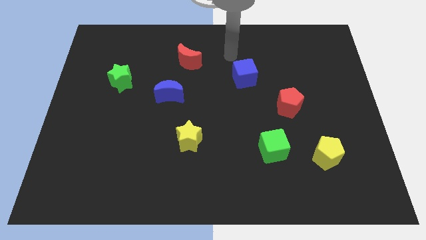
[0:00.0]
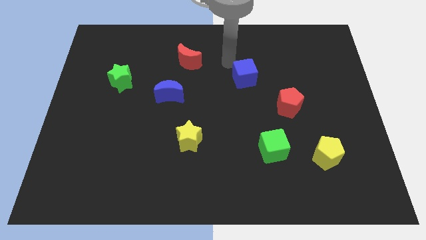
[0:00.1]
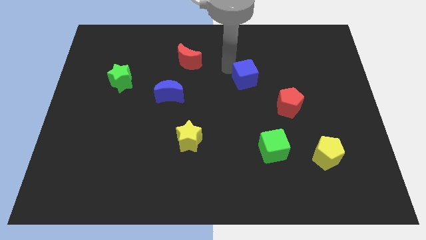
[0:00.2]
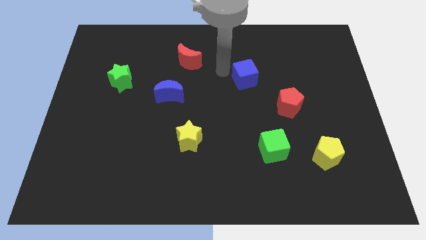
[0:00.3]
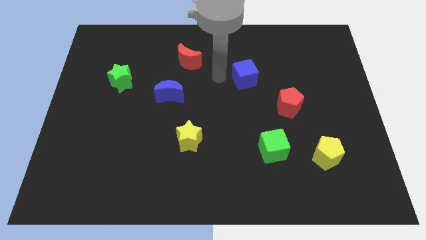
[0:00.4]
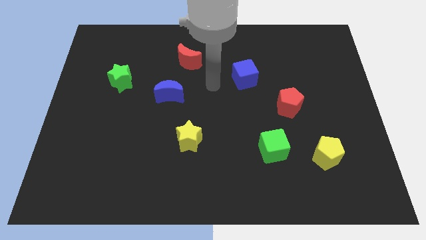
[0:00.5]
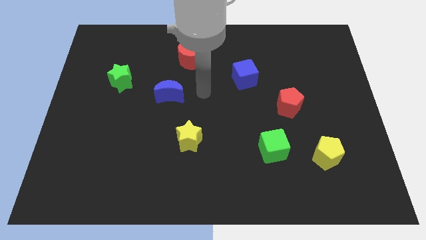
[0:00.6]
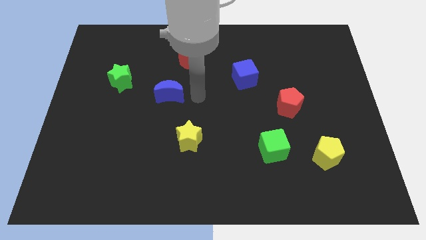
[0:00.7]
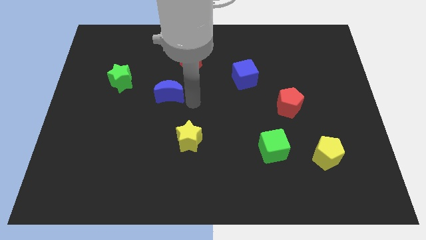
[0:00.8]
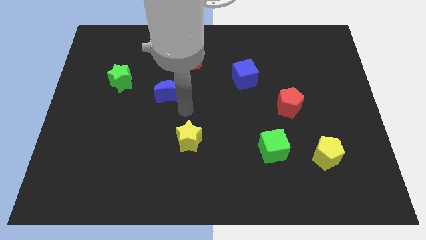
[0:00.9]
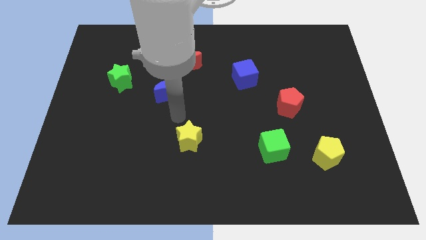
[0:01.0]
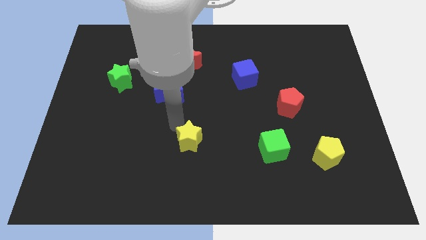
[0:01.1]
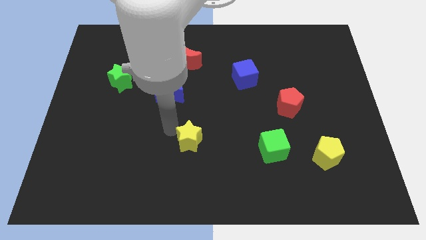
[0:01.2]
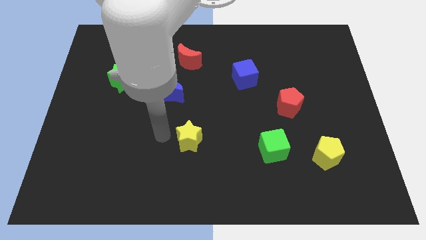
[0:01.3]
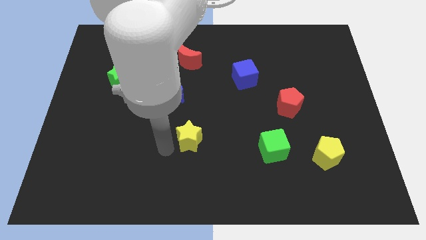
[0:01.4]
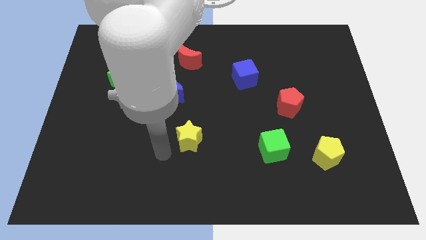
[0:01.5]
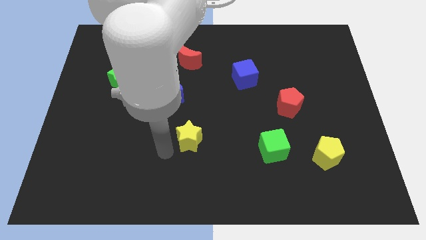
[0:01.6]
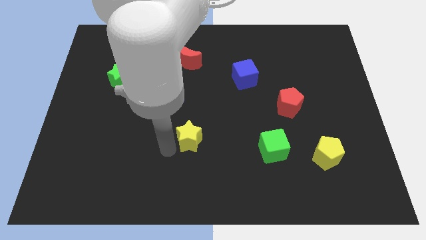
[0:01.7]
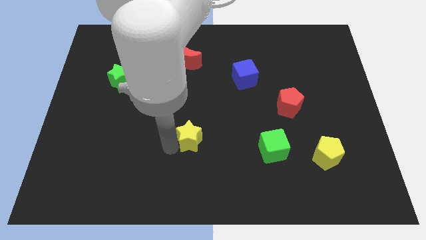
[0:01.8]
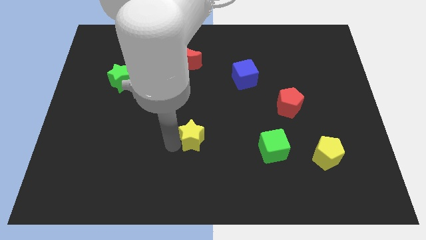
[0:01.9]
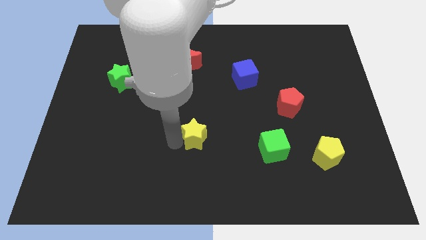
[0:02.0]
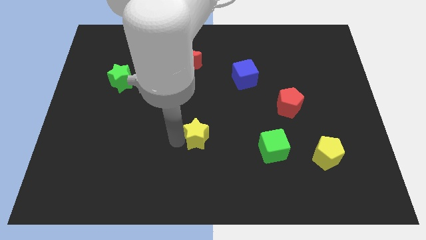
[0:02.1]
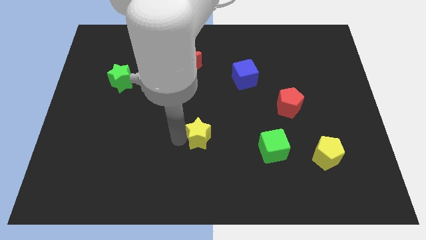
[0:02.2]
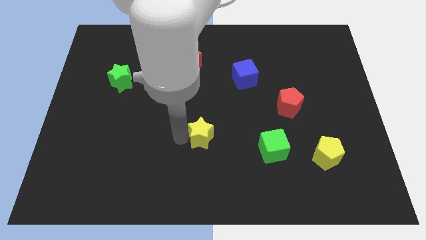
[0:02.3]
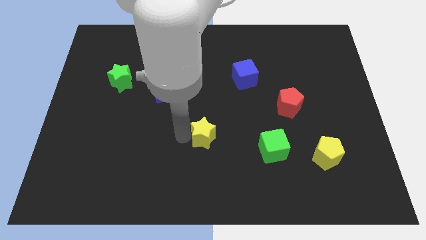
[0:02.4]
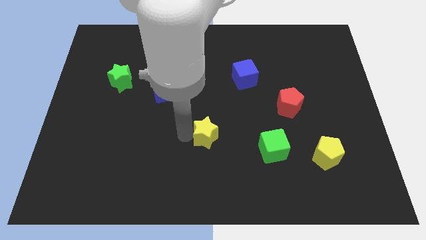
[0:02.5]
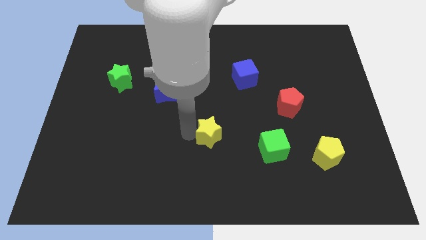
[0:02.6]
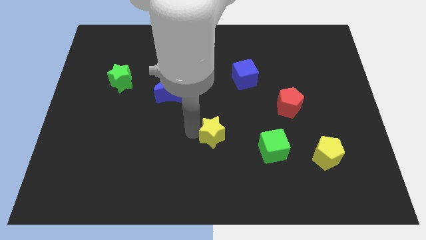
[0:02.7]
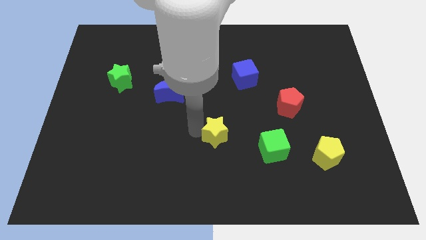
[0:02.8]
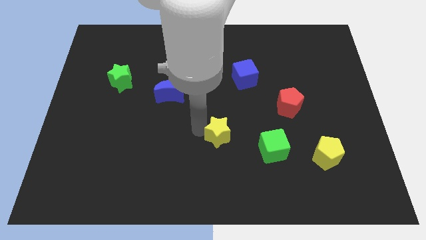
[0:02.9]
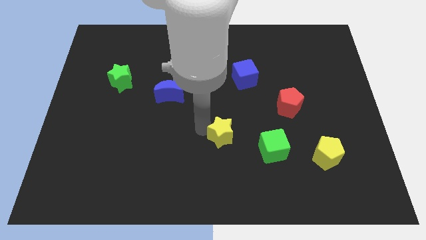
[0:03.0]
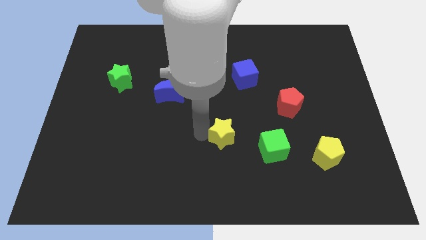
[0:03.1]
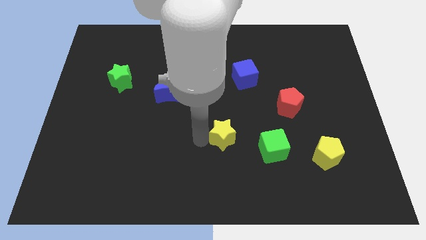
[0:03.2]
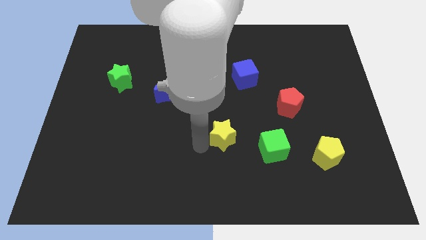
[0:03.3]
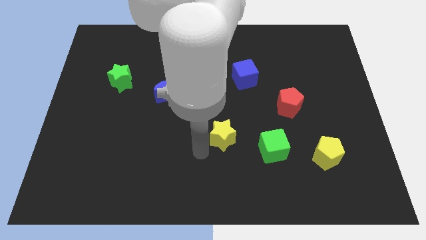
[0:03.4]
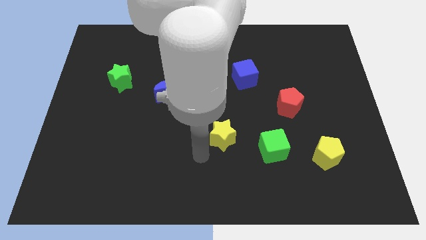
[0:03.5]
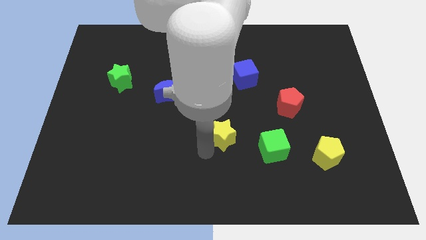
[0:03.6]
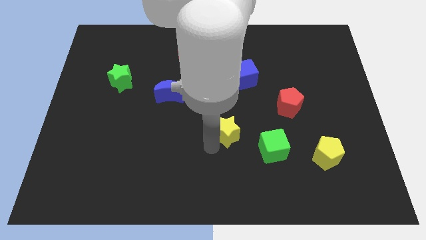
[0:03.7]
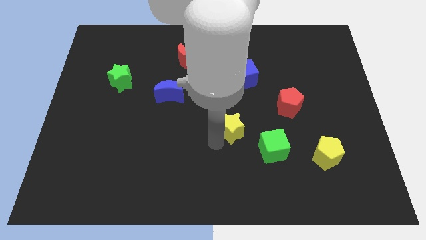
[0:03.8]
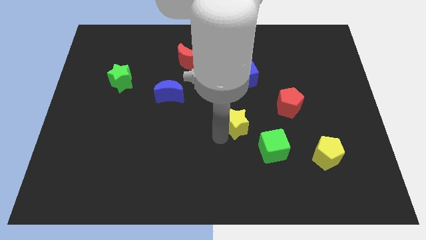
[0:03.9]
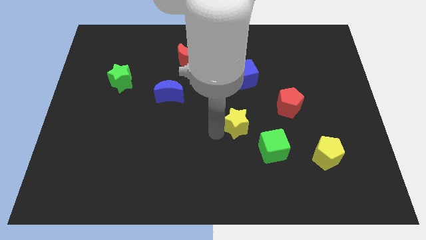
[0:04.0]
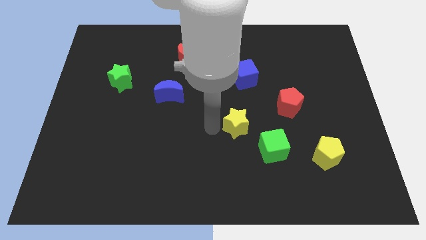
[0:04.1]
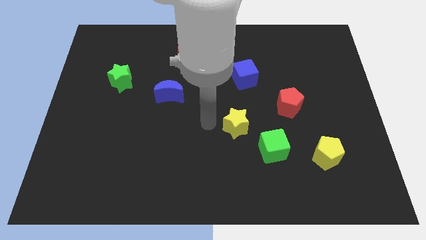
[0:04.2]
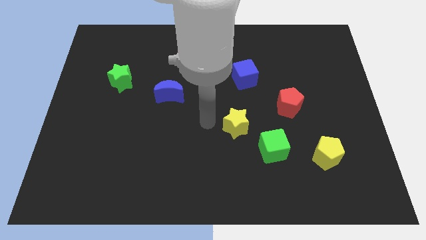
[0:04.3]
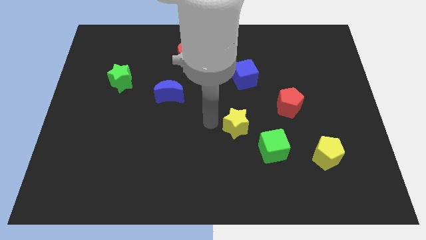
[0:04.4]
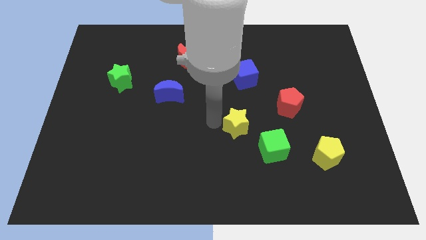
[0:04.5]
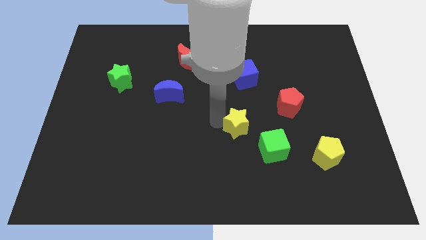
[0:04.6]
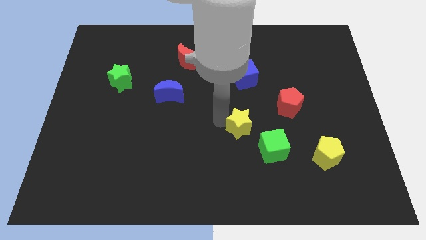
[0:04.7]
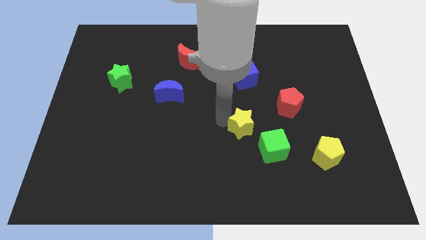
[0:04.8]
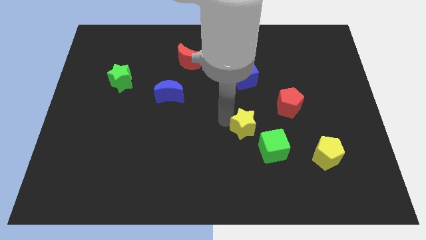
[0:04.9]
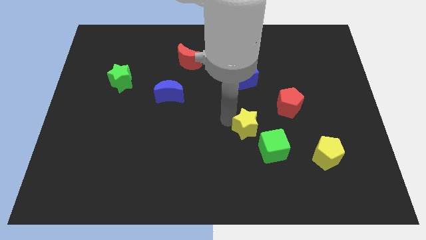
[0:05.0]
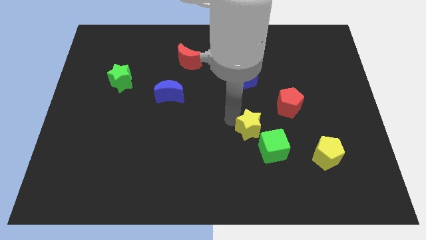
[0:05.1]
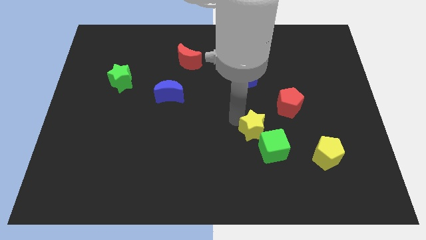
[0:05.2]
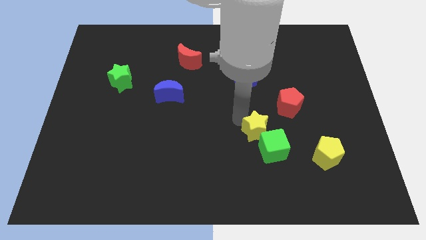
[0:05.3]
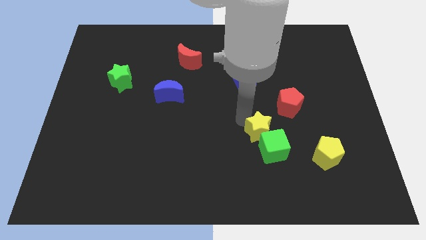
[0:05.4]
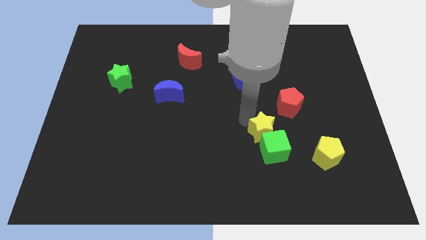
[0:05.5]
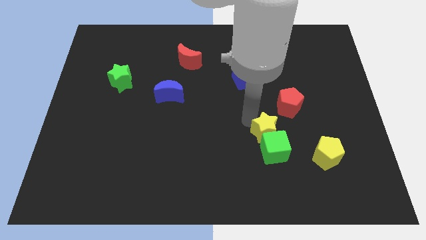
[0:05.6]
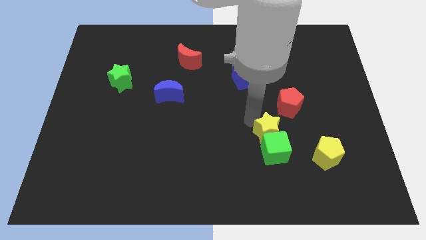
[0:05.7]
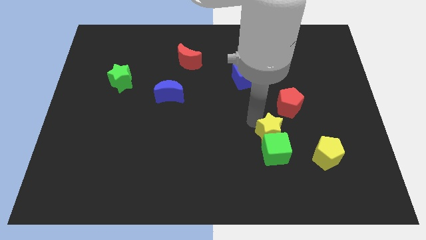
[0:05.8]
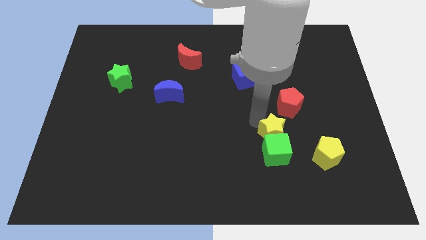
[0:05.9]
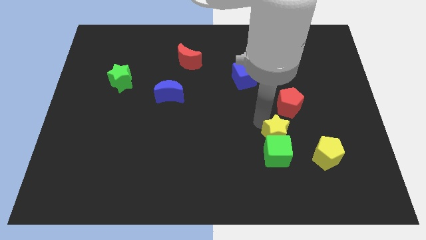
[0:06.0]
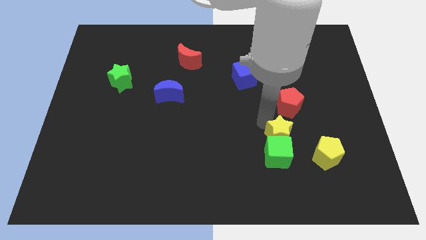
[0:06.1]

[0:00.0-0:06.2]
move the yellow star right

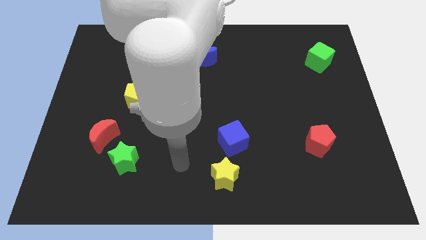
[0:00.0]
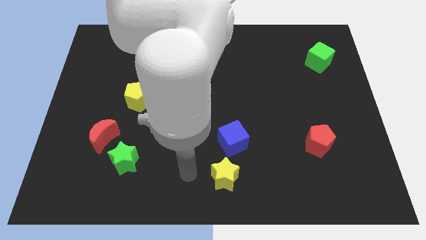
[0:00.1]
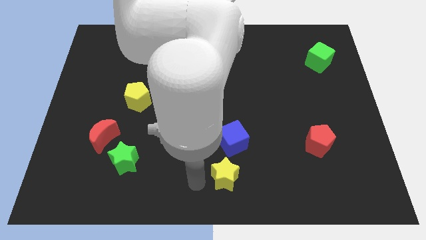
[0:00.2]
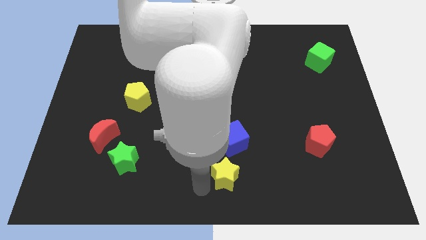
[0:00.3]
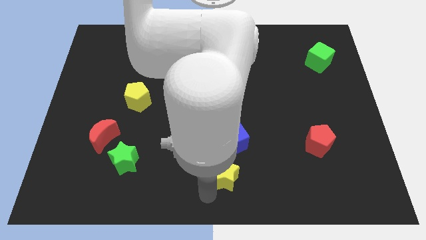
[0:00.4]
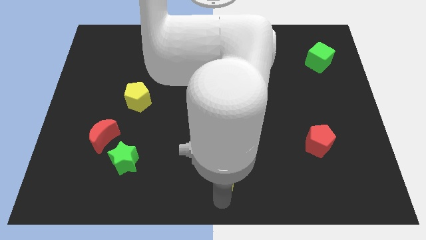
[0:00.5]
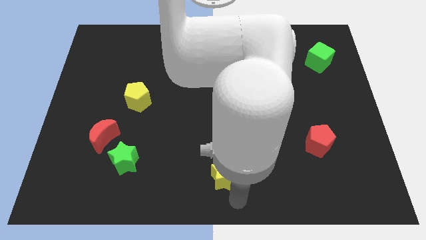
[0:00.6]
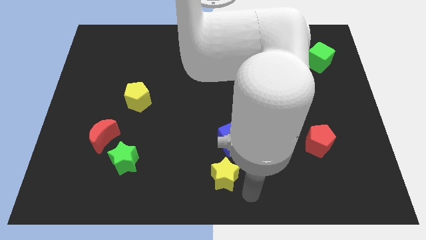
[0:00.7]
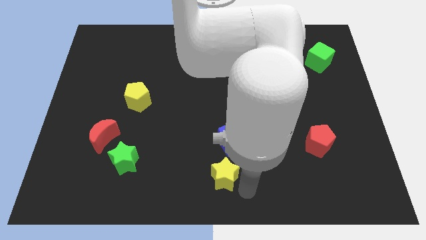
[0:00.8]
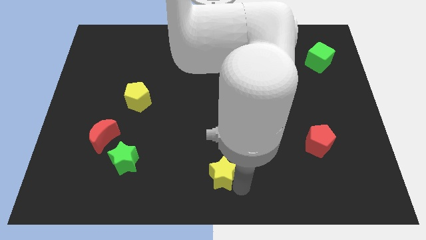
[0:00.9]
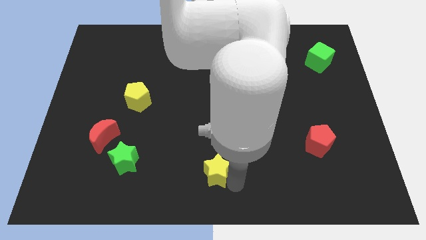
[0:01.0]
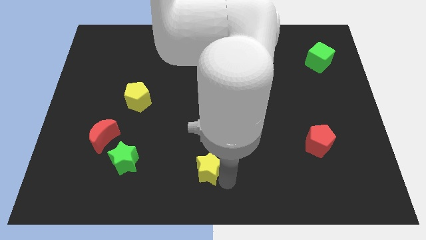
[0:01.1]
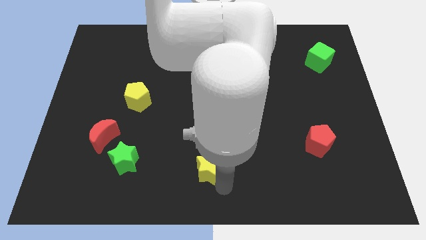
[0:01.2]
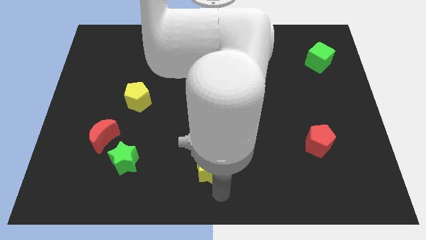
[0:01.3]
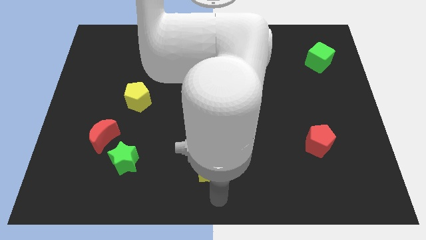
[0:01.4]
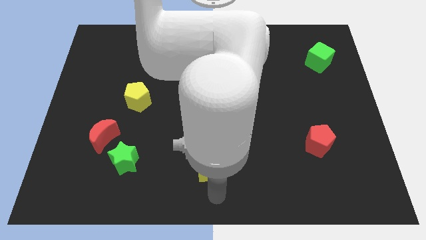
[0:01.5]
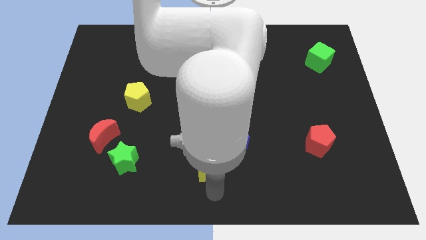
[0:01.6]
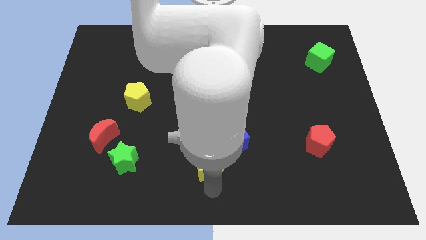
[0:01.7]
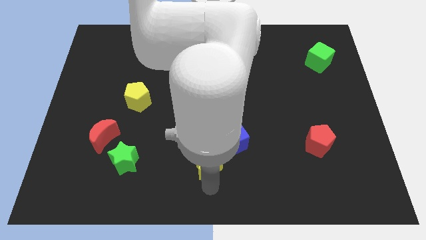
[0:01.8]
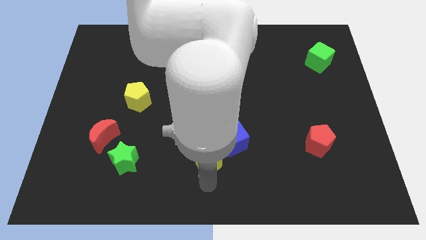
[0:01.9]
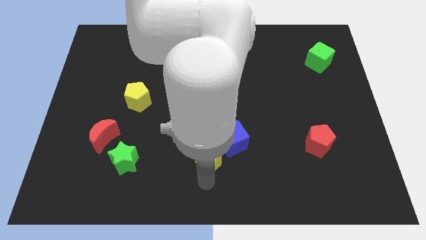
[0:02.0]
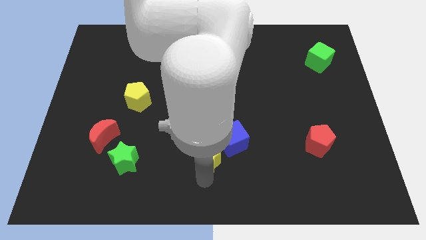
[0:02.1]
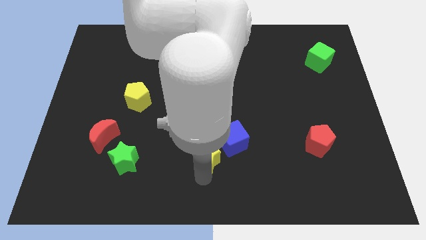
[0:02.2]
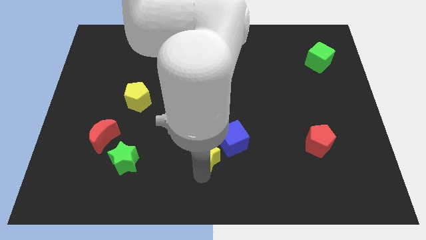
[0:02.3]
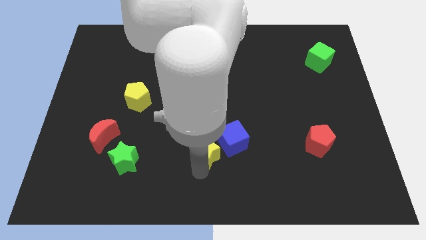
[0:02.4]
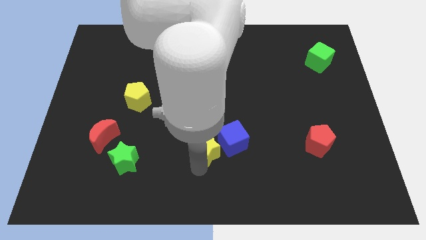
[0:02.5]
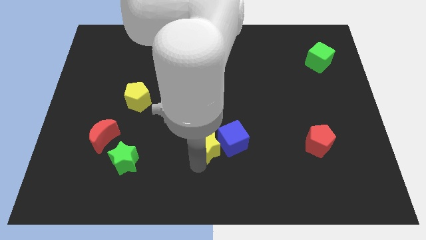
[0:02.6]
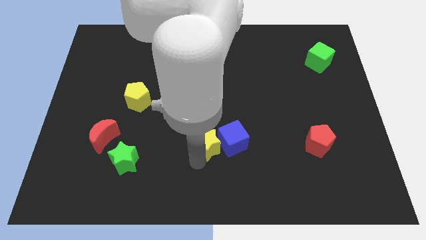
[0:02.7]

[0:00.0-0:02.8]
push the yellow star somewhat up
